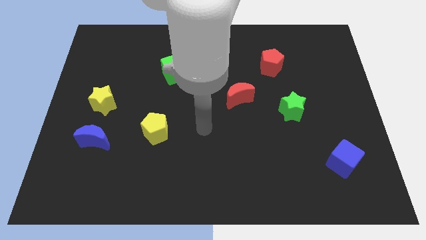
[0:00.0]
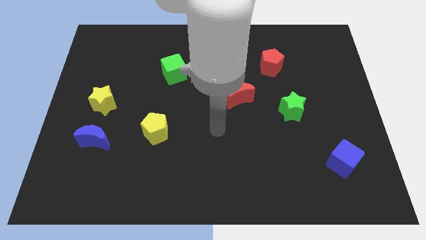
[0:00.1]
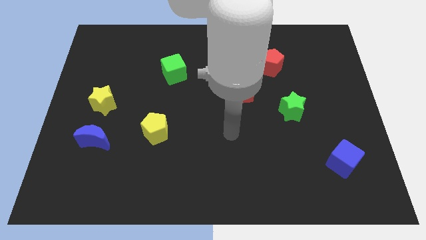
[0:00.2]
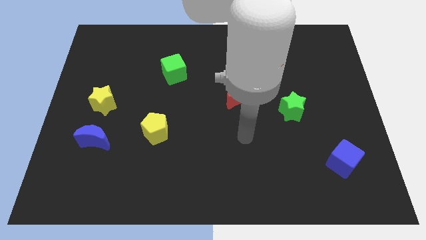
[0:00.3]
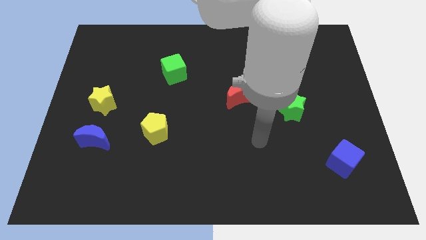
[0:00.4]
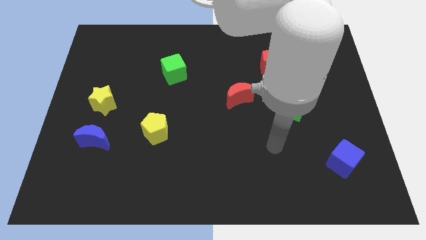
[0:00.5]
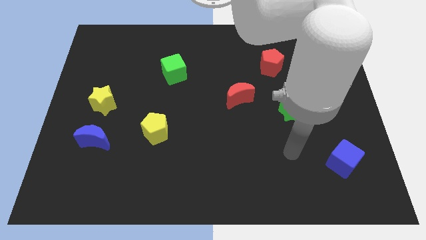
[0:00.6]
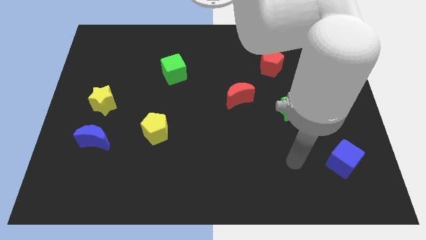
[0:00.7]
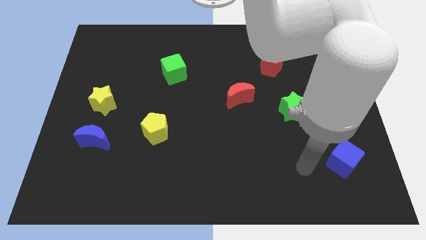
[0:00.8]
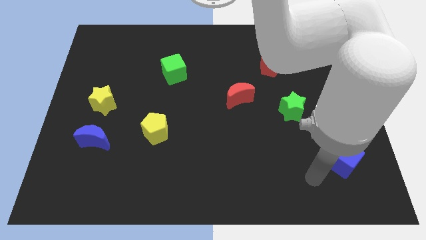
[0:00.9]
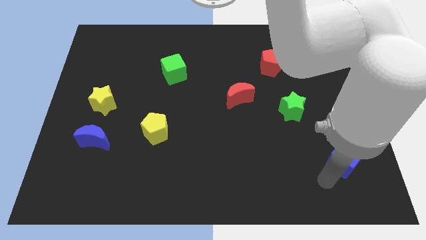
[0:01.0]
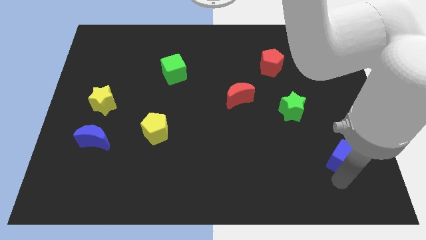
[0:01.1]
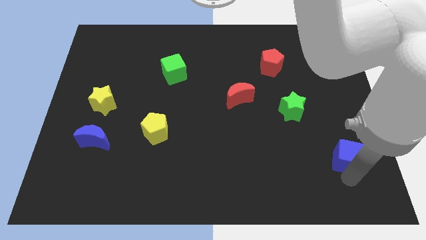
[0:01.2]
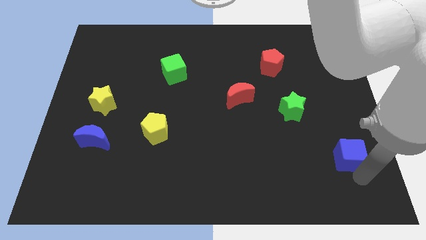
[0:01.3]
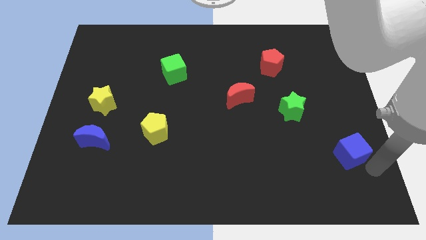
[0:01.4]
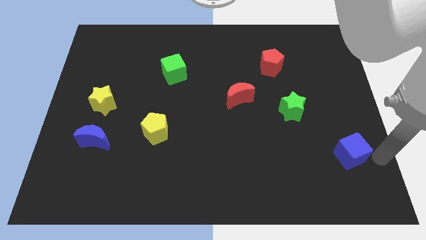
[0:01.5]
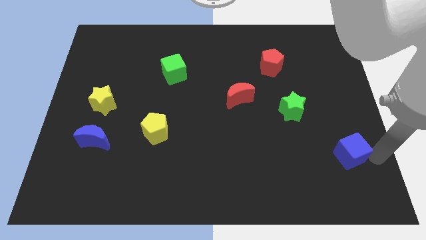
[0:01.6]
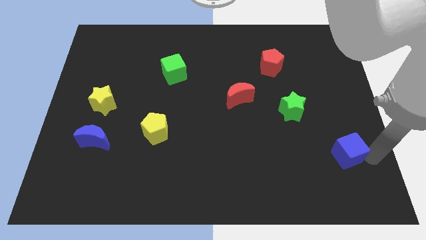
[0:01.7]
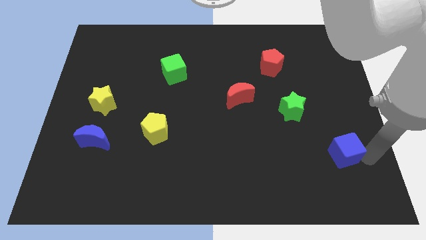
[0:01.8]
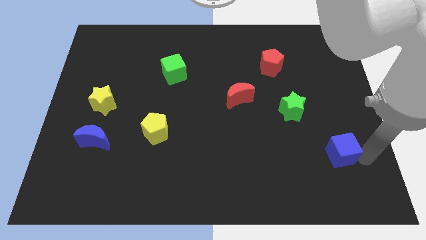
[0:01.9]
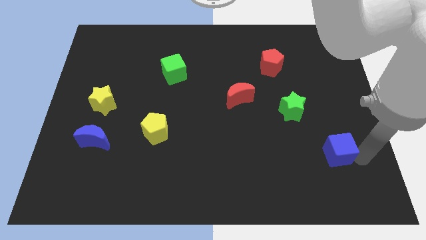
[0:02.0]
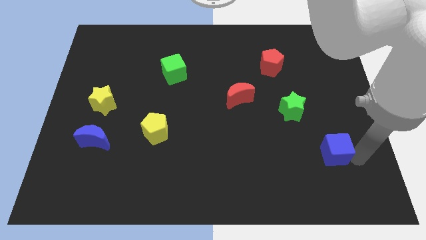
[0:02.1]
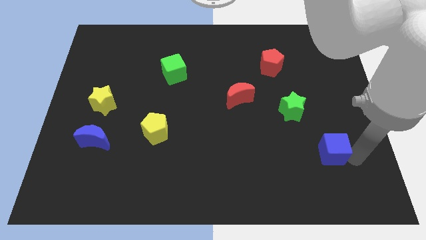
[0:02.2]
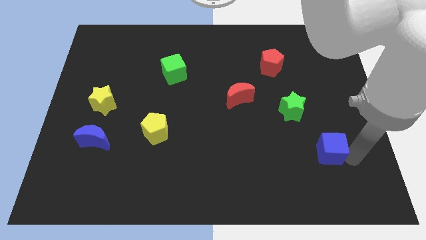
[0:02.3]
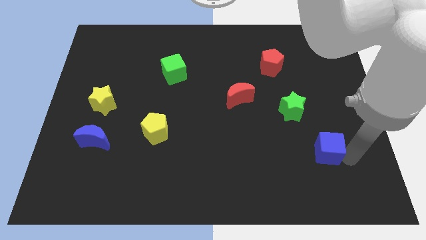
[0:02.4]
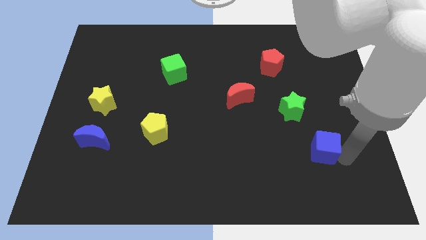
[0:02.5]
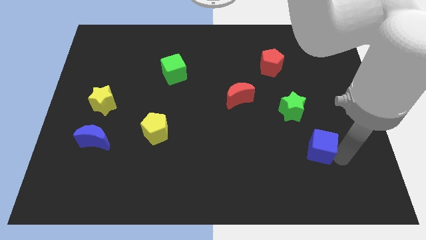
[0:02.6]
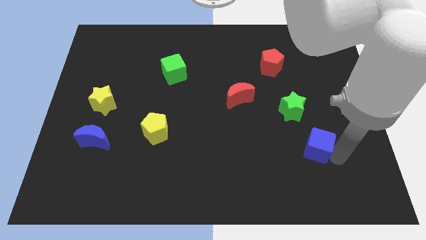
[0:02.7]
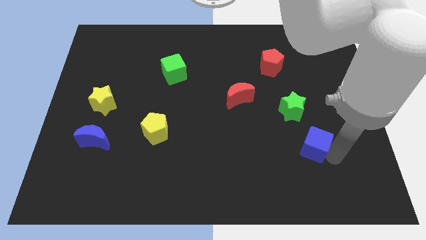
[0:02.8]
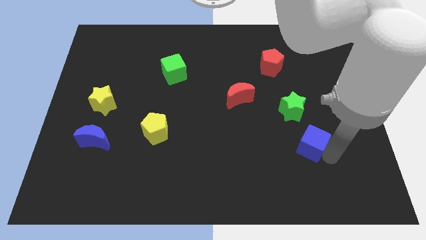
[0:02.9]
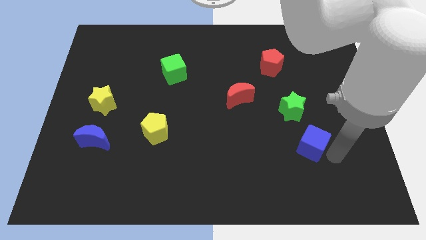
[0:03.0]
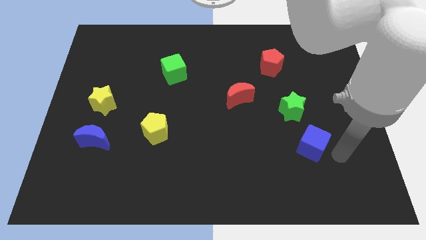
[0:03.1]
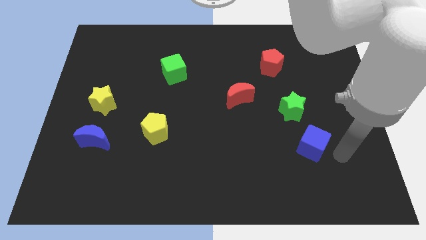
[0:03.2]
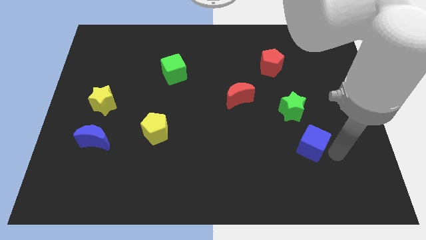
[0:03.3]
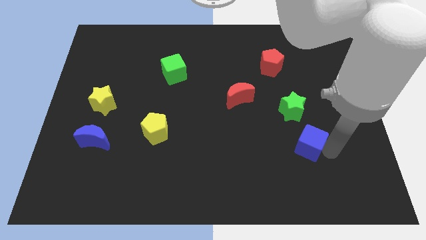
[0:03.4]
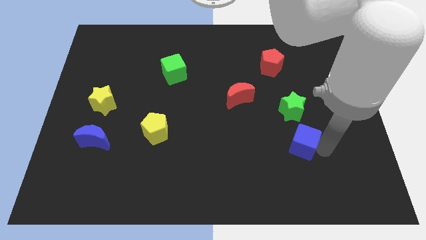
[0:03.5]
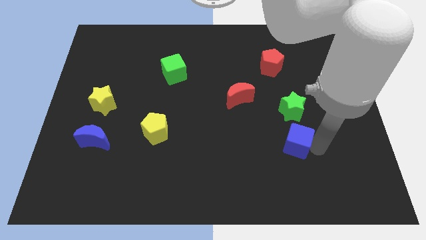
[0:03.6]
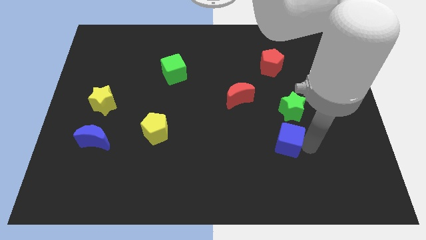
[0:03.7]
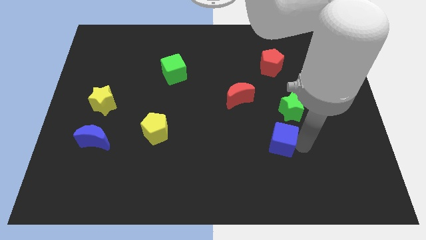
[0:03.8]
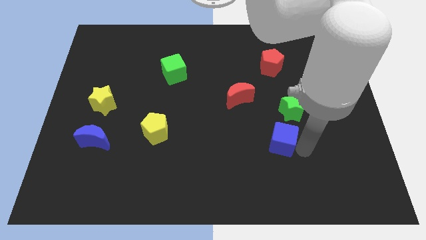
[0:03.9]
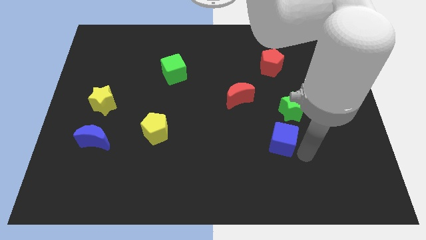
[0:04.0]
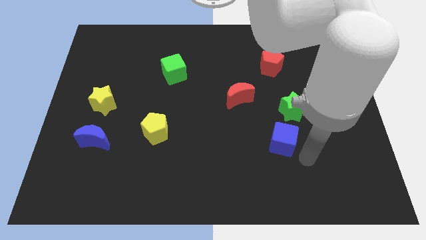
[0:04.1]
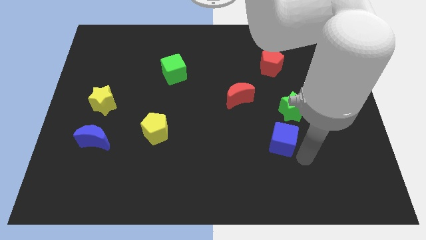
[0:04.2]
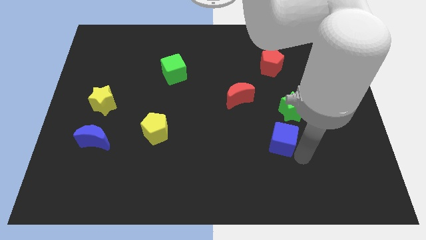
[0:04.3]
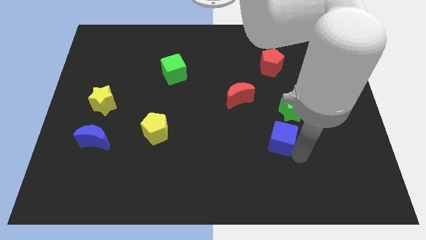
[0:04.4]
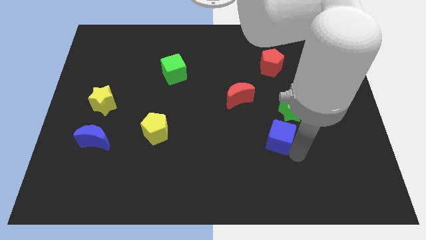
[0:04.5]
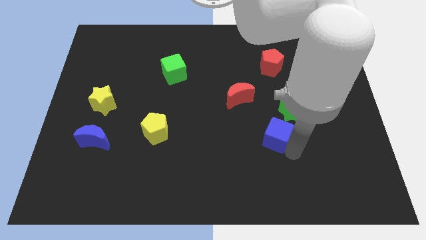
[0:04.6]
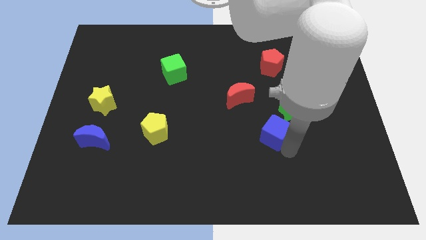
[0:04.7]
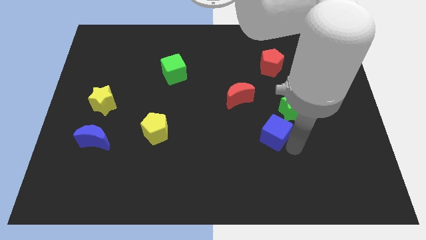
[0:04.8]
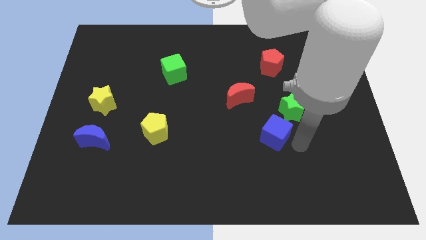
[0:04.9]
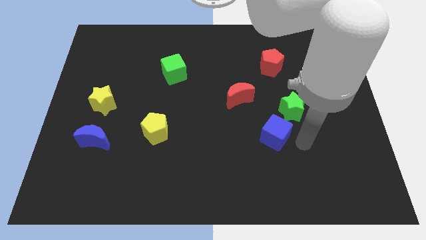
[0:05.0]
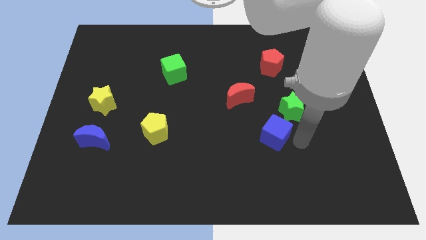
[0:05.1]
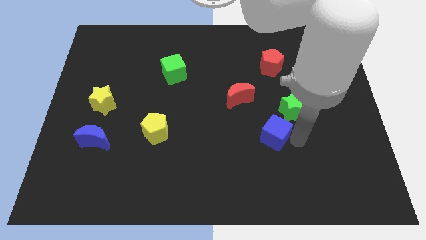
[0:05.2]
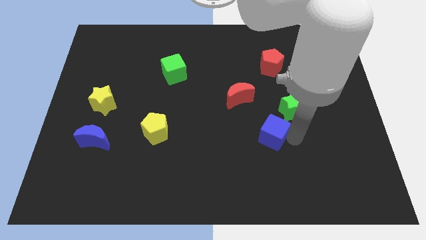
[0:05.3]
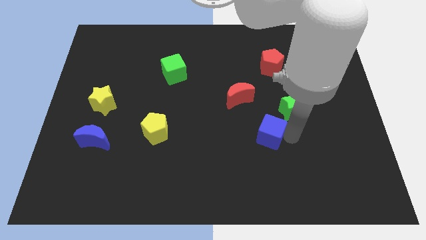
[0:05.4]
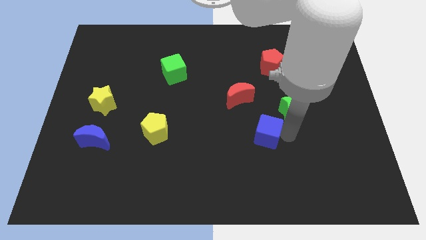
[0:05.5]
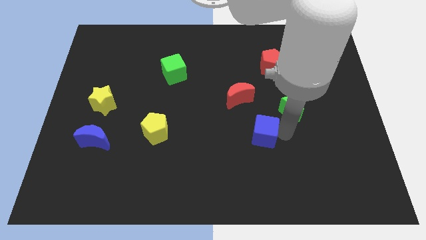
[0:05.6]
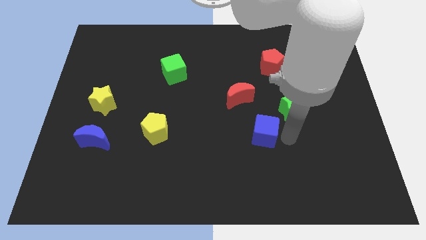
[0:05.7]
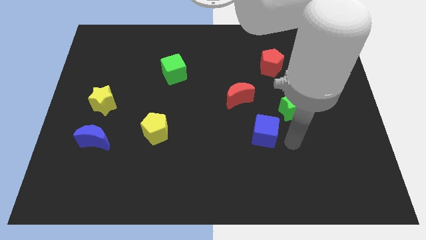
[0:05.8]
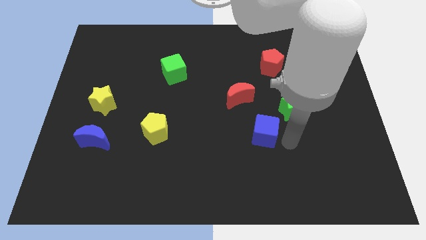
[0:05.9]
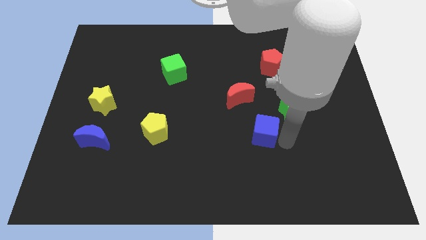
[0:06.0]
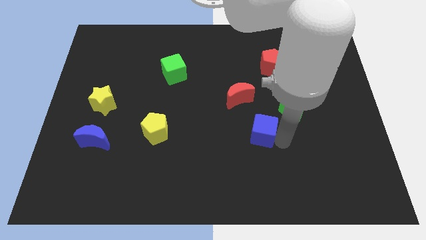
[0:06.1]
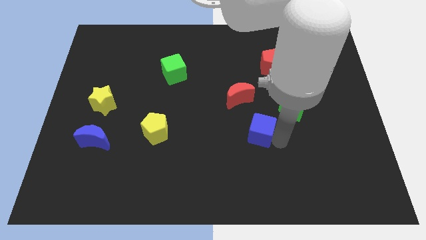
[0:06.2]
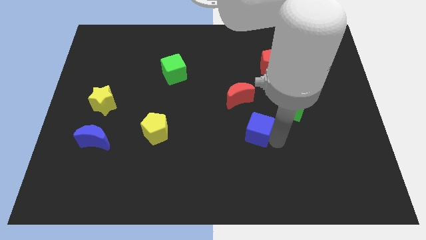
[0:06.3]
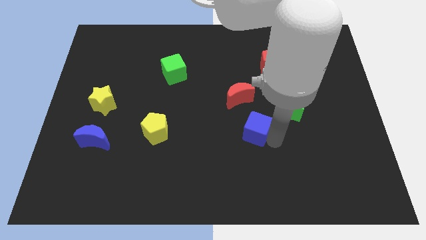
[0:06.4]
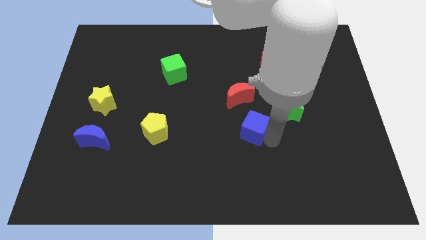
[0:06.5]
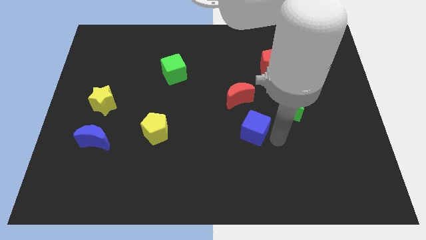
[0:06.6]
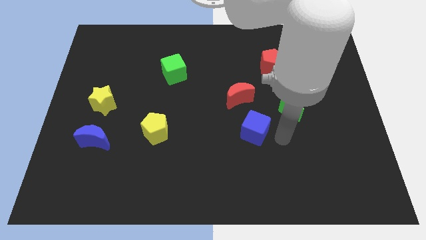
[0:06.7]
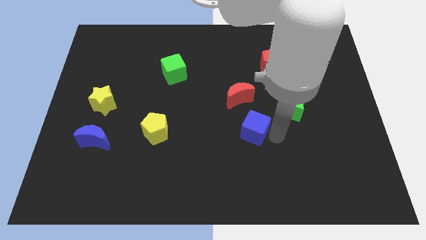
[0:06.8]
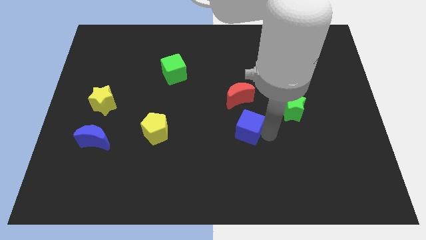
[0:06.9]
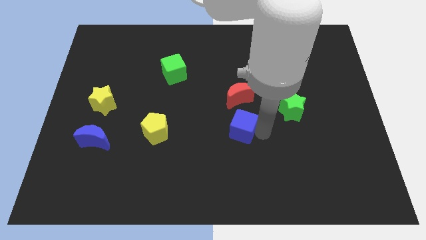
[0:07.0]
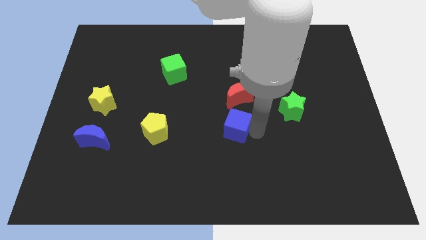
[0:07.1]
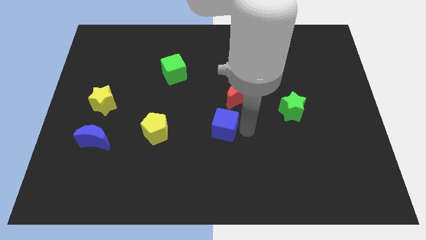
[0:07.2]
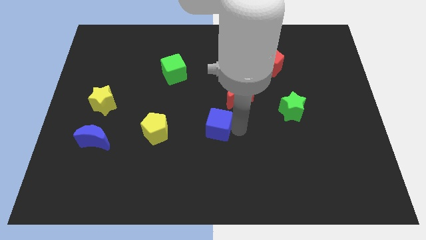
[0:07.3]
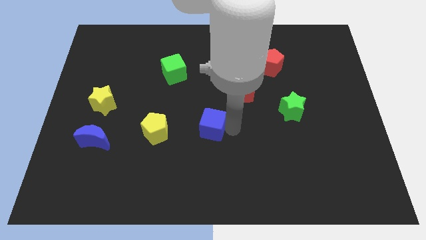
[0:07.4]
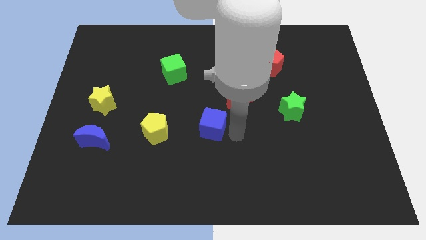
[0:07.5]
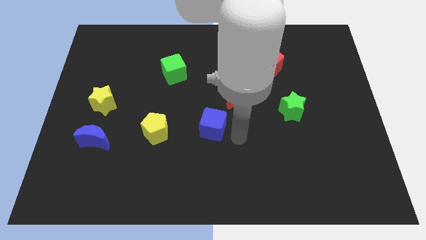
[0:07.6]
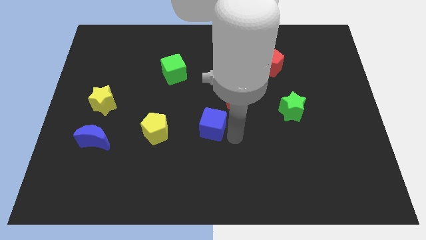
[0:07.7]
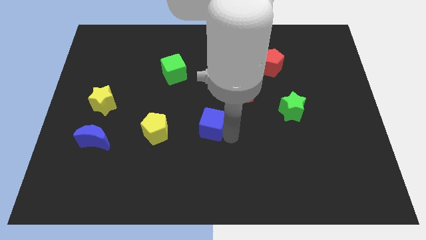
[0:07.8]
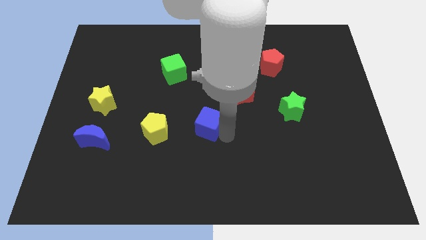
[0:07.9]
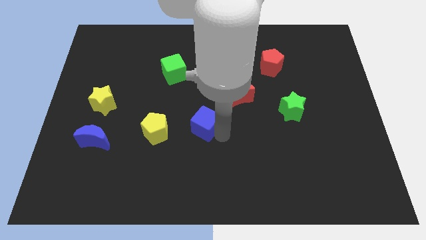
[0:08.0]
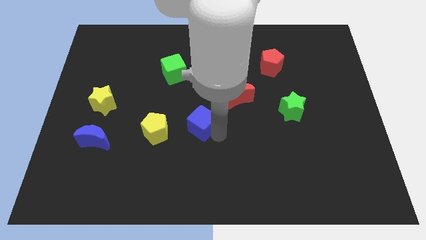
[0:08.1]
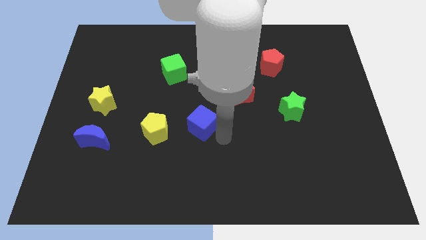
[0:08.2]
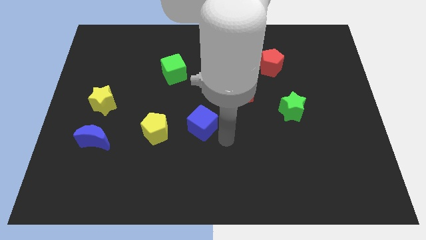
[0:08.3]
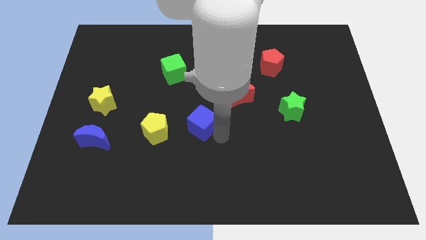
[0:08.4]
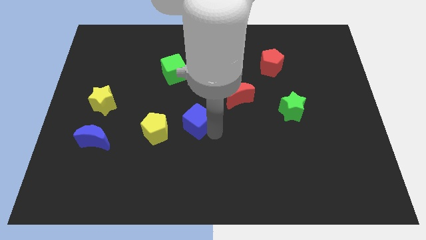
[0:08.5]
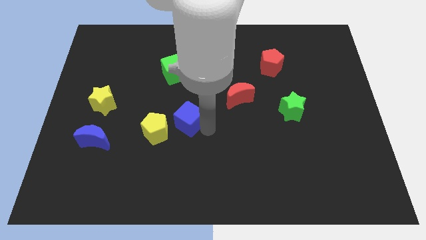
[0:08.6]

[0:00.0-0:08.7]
move the blue cube to the top right of the yellow pentagon
